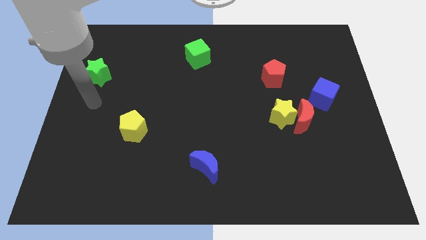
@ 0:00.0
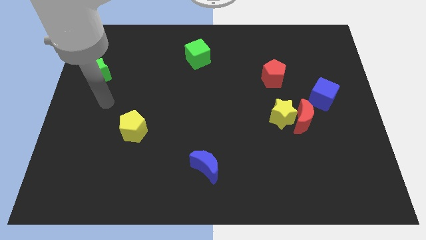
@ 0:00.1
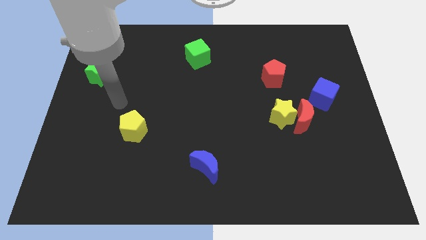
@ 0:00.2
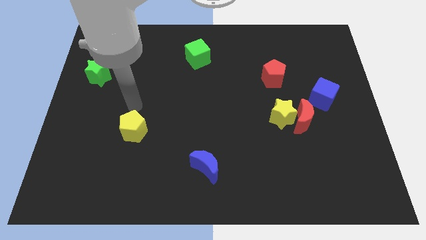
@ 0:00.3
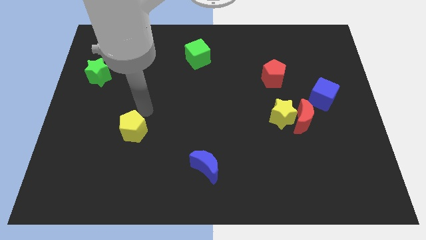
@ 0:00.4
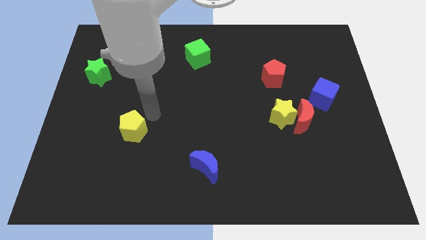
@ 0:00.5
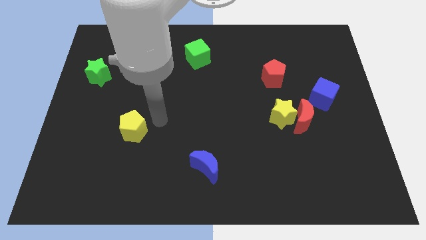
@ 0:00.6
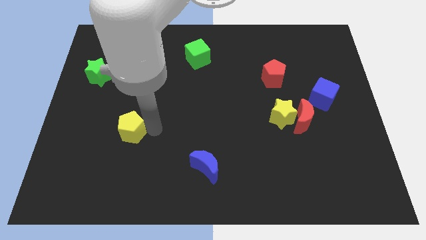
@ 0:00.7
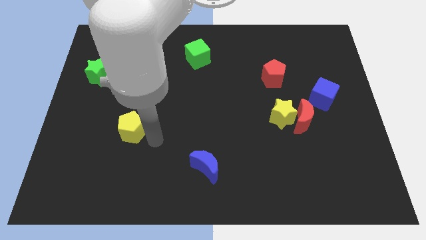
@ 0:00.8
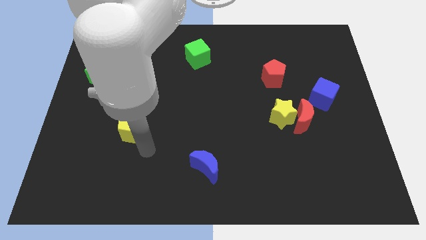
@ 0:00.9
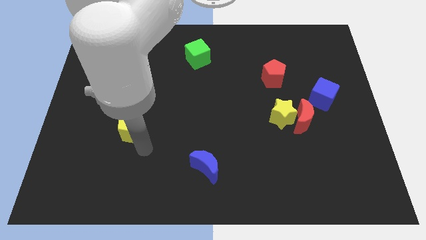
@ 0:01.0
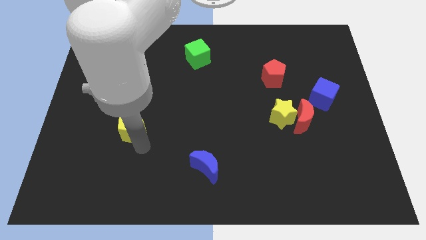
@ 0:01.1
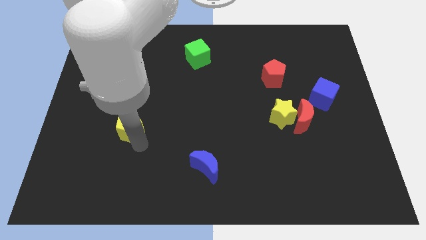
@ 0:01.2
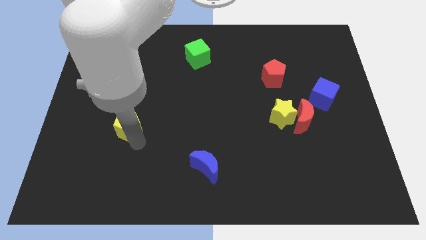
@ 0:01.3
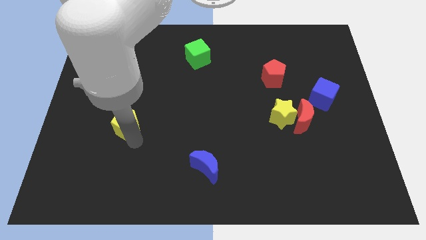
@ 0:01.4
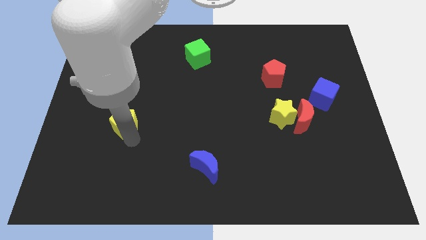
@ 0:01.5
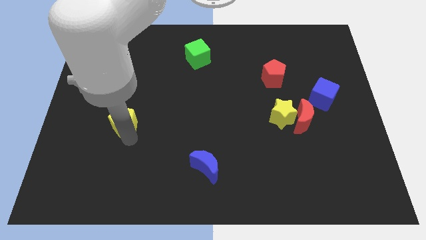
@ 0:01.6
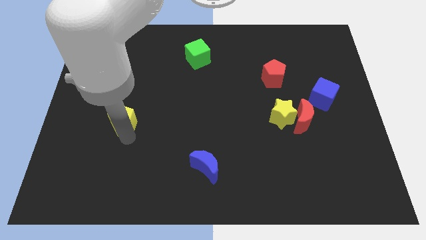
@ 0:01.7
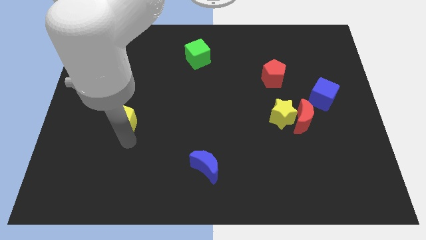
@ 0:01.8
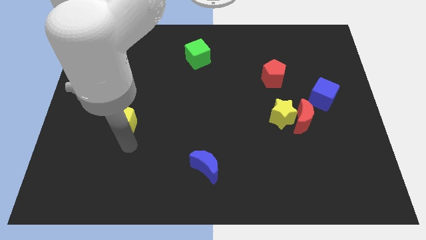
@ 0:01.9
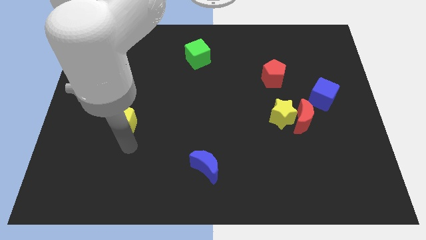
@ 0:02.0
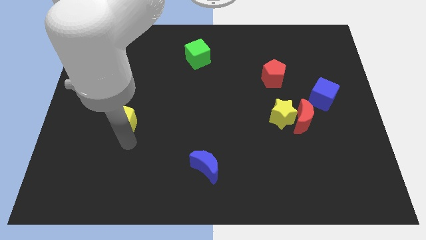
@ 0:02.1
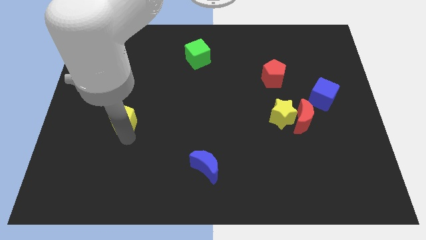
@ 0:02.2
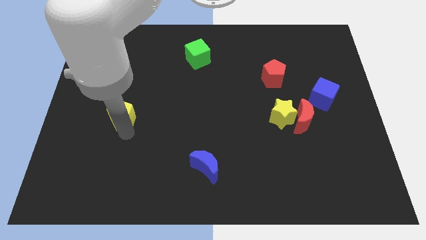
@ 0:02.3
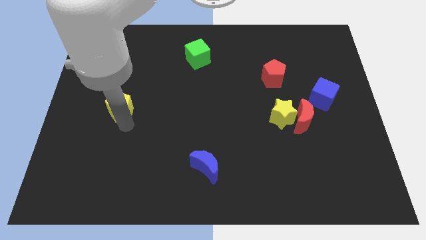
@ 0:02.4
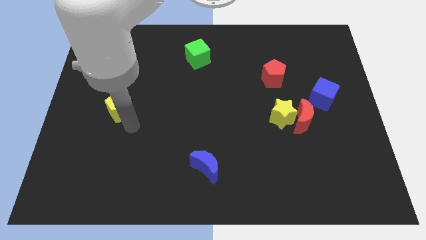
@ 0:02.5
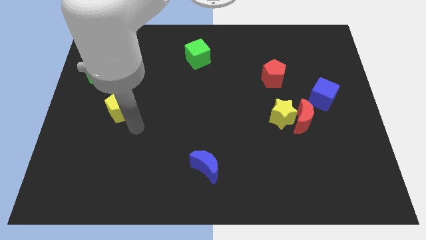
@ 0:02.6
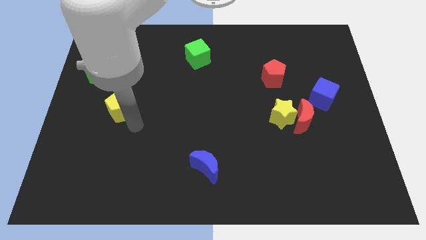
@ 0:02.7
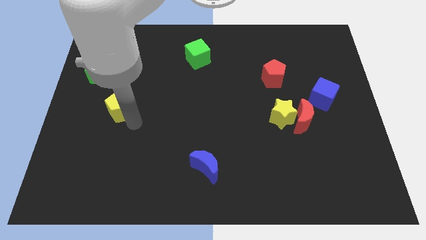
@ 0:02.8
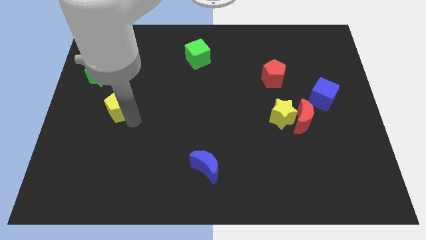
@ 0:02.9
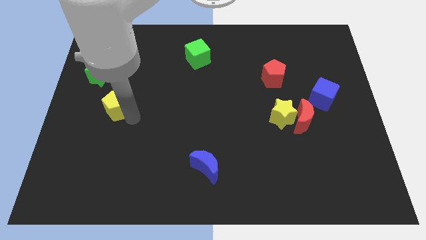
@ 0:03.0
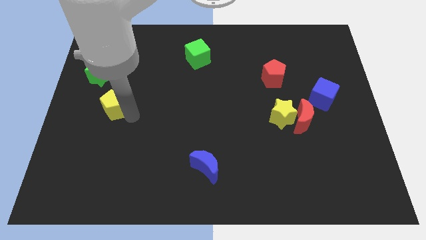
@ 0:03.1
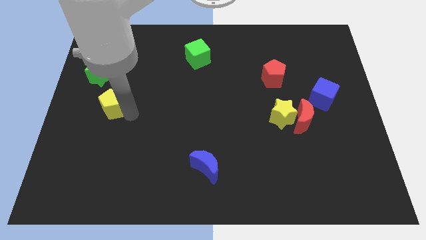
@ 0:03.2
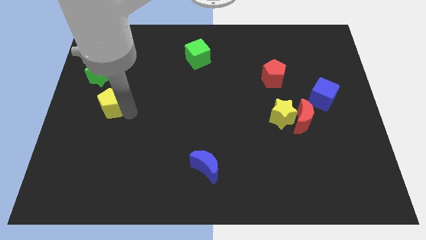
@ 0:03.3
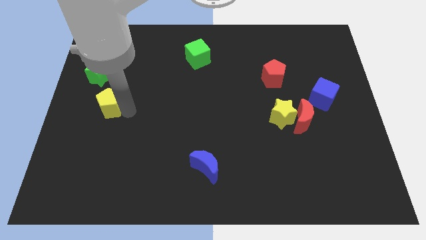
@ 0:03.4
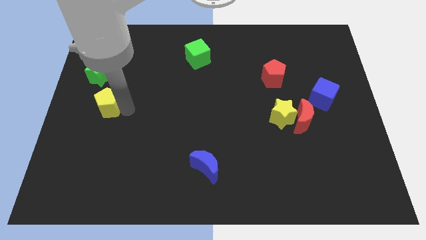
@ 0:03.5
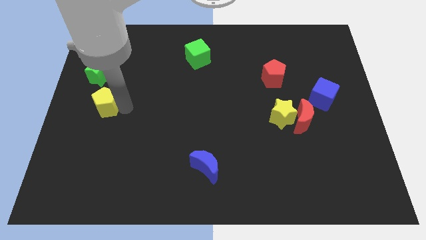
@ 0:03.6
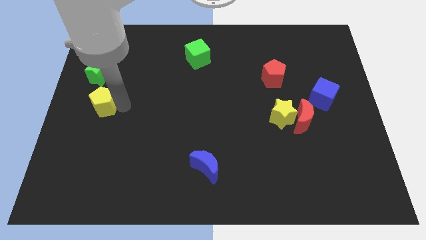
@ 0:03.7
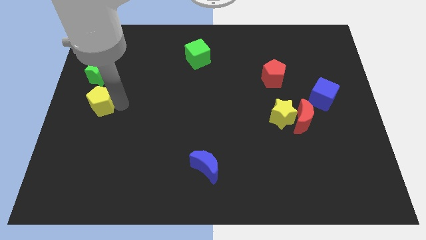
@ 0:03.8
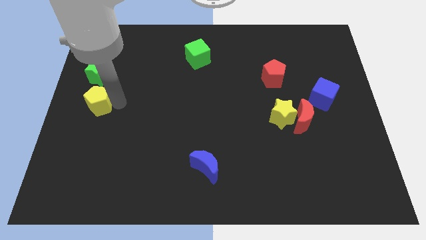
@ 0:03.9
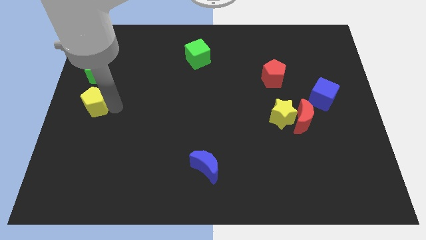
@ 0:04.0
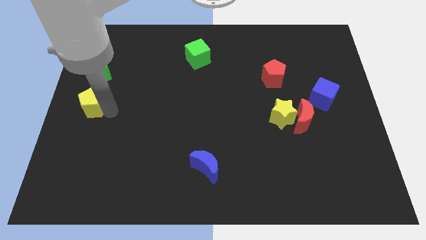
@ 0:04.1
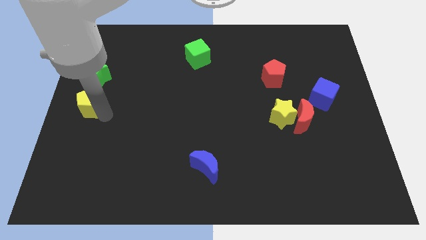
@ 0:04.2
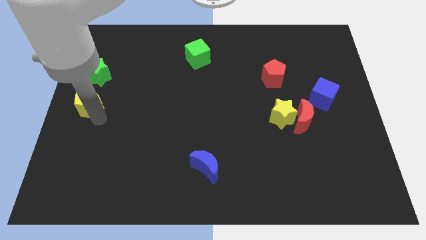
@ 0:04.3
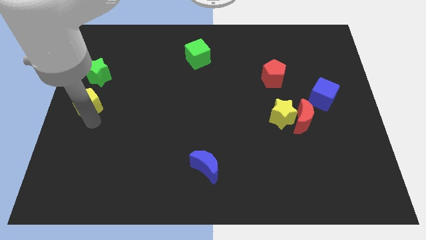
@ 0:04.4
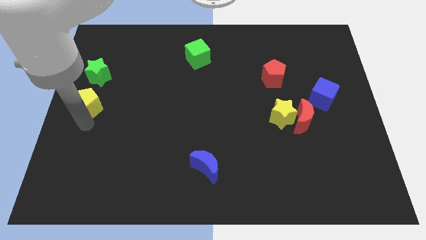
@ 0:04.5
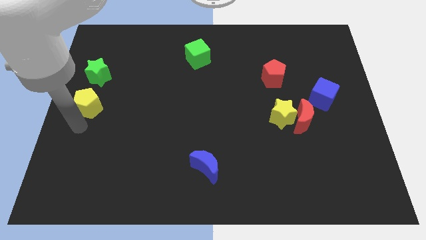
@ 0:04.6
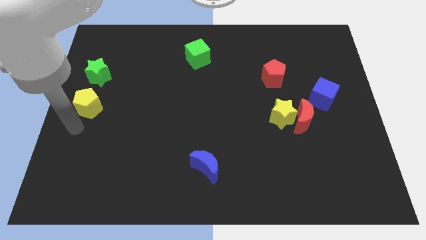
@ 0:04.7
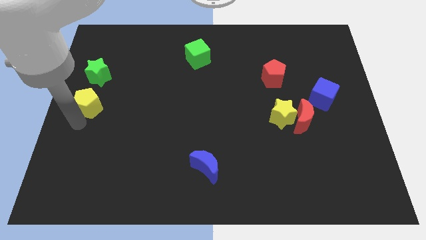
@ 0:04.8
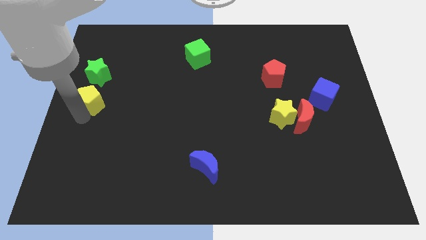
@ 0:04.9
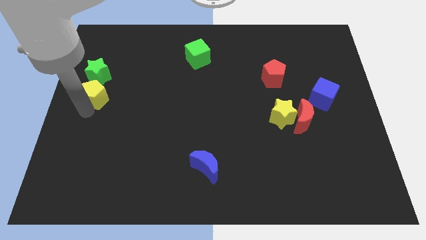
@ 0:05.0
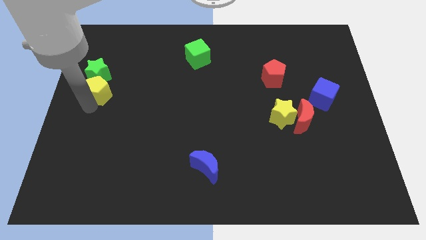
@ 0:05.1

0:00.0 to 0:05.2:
slide the yellow pentagon next to the green star

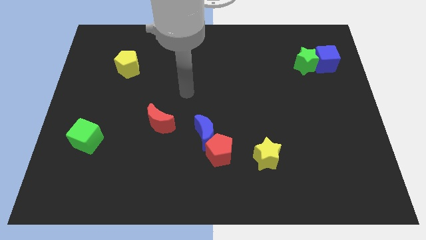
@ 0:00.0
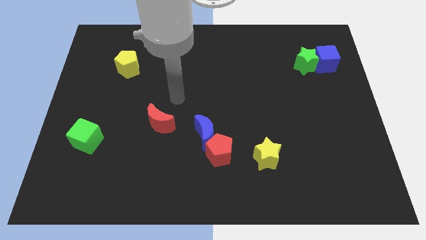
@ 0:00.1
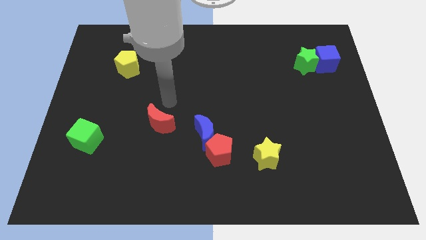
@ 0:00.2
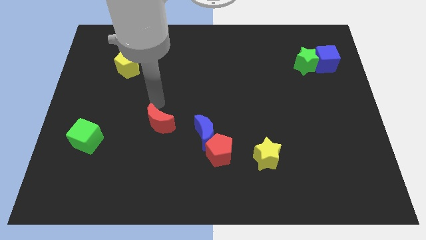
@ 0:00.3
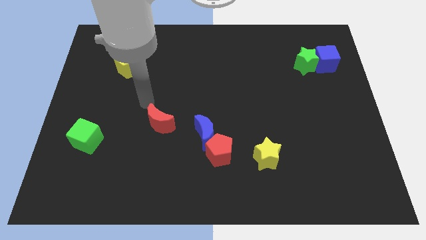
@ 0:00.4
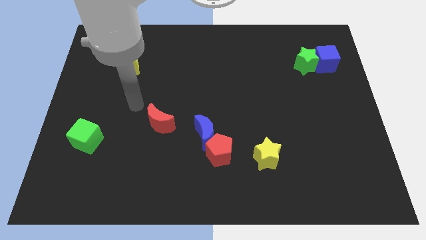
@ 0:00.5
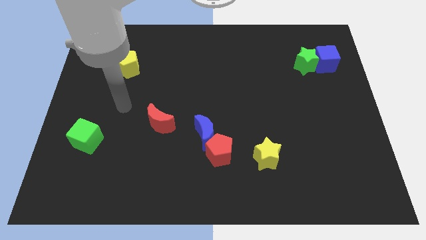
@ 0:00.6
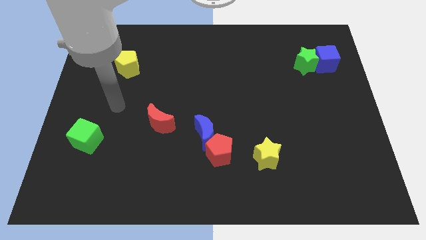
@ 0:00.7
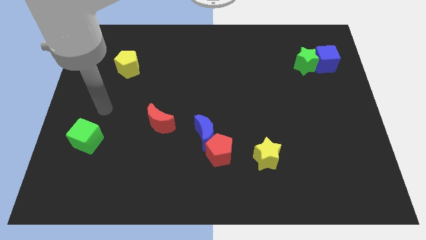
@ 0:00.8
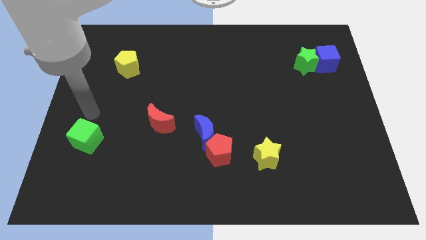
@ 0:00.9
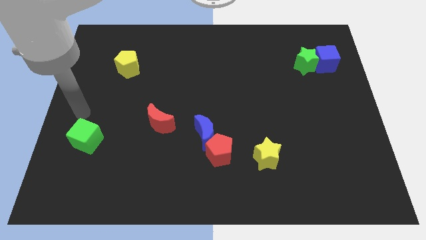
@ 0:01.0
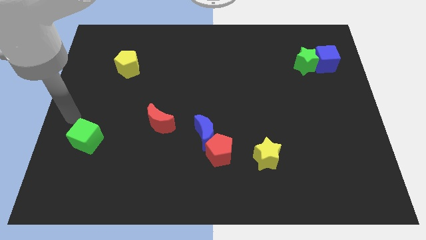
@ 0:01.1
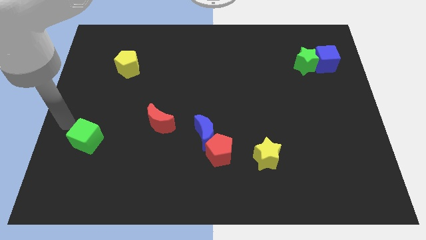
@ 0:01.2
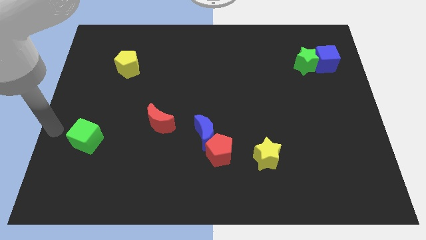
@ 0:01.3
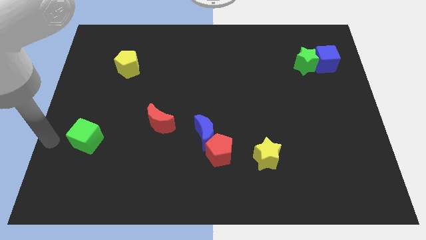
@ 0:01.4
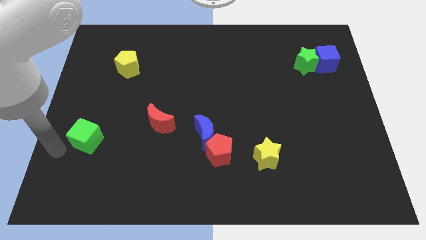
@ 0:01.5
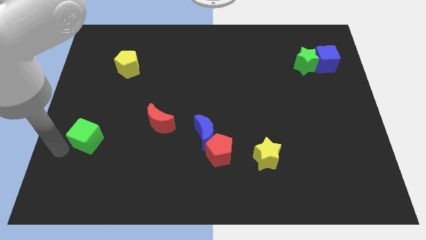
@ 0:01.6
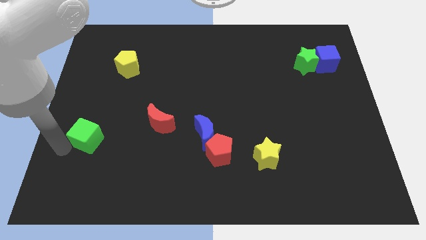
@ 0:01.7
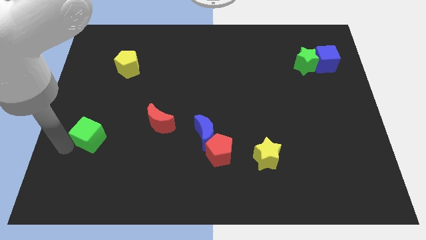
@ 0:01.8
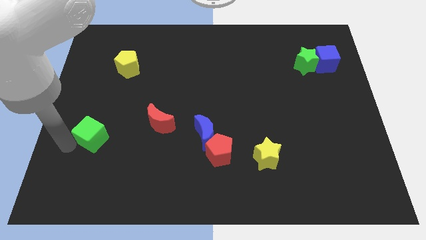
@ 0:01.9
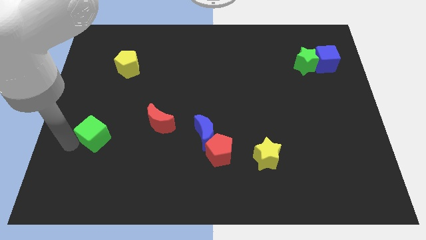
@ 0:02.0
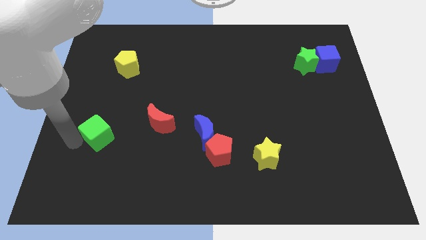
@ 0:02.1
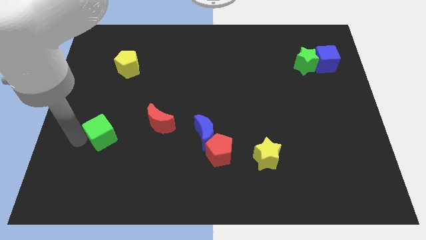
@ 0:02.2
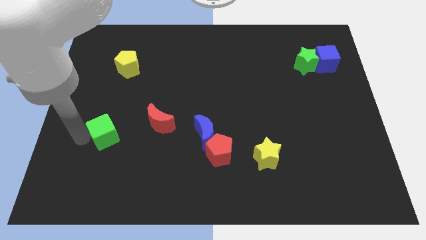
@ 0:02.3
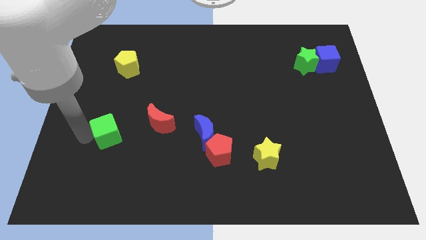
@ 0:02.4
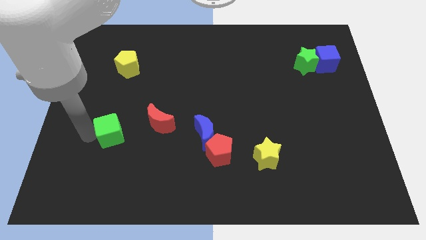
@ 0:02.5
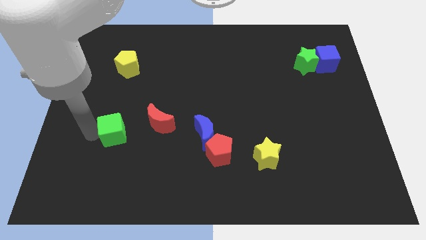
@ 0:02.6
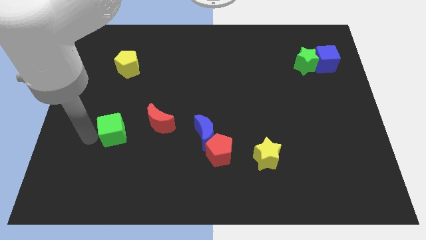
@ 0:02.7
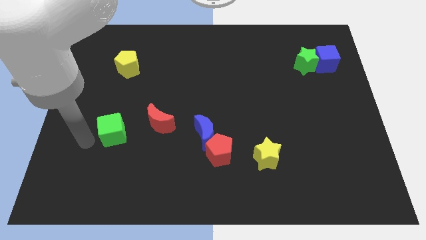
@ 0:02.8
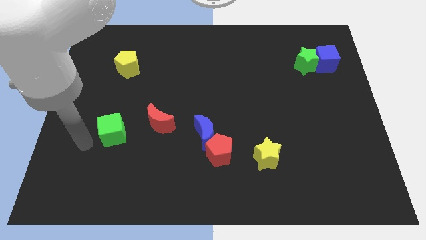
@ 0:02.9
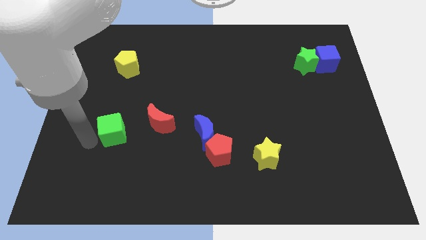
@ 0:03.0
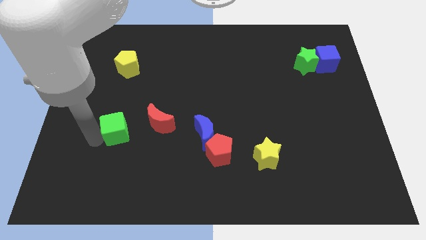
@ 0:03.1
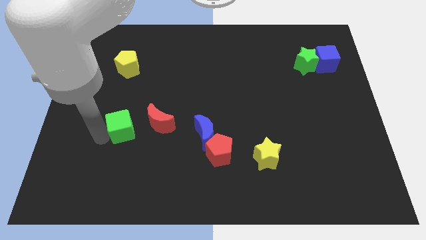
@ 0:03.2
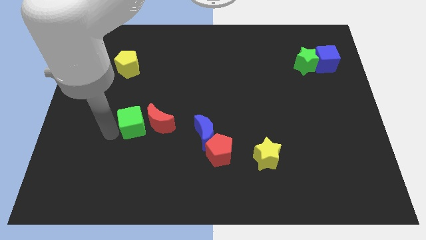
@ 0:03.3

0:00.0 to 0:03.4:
put the green cube next to the red moon
